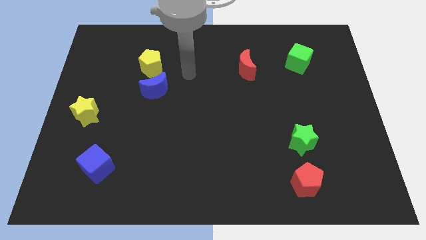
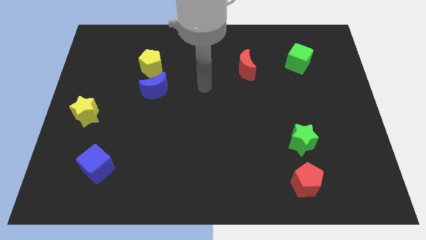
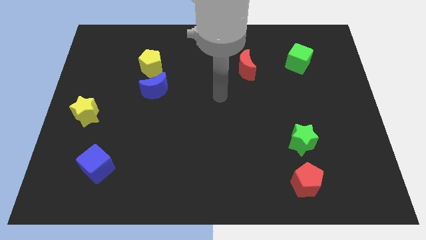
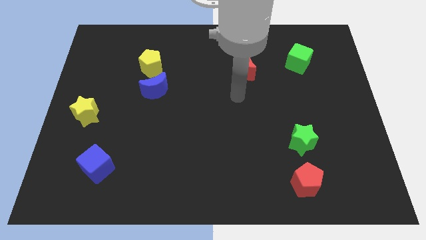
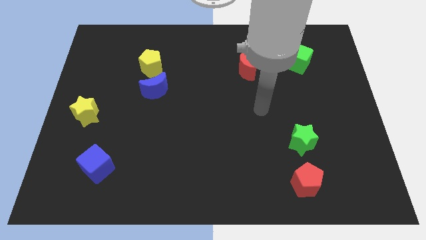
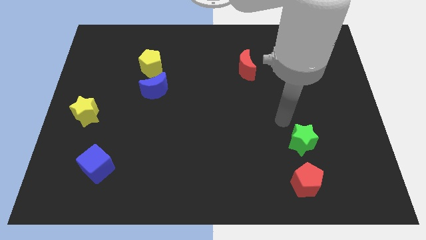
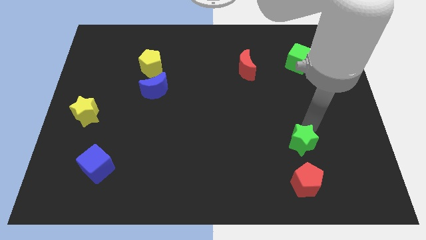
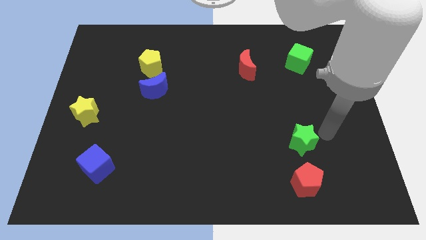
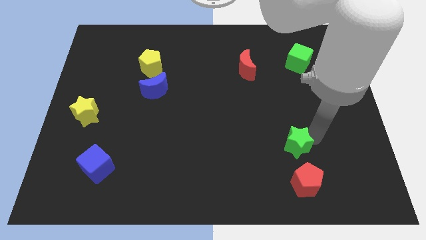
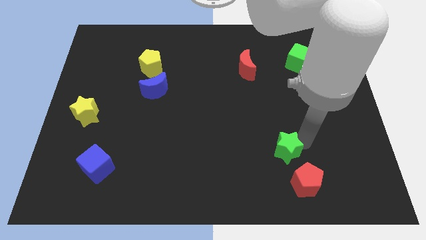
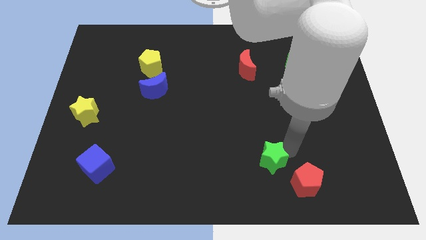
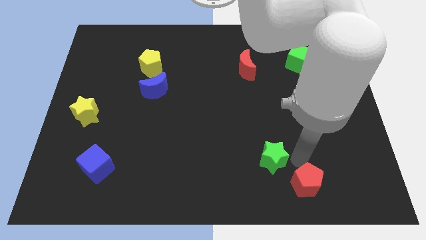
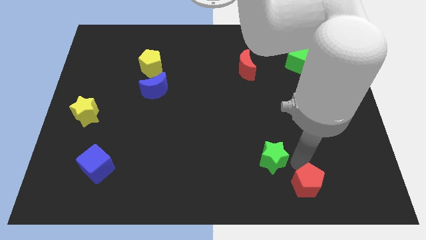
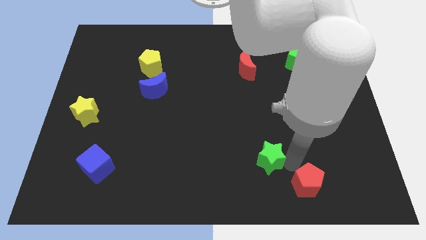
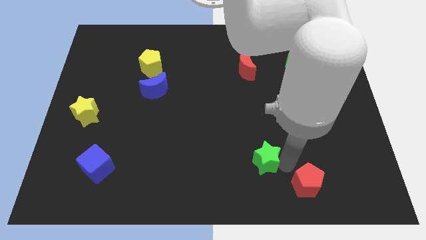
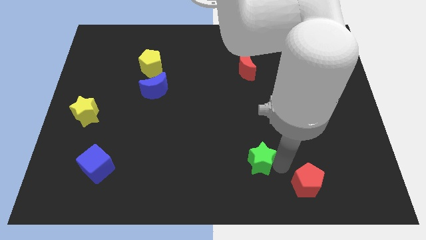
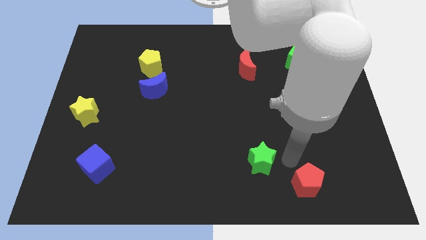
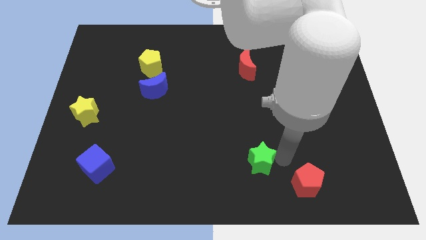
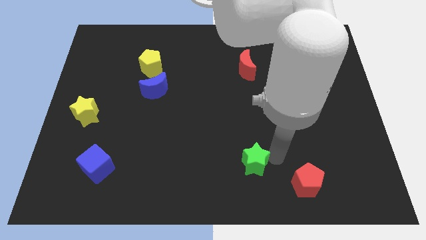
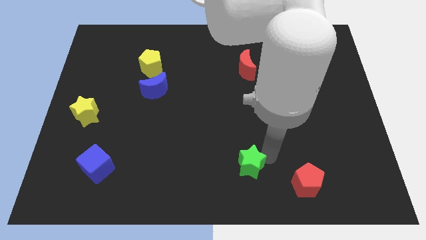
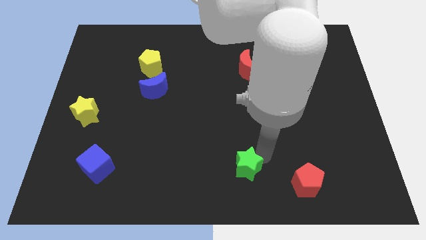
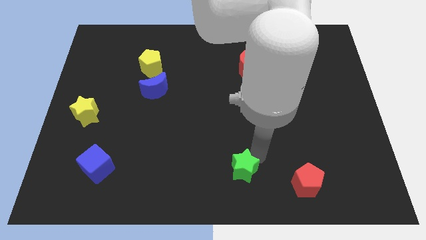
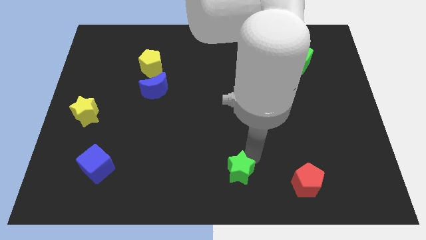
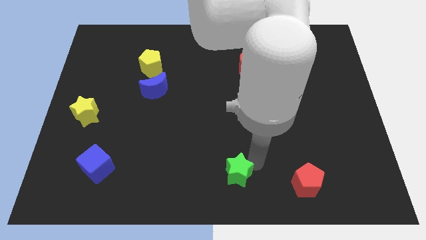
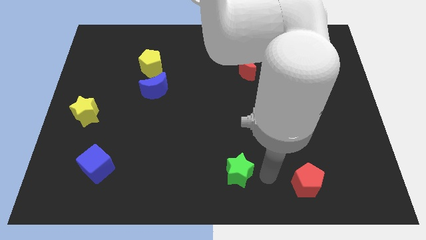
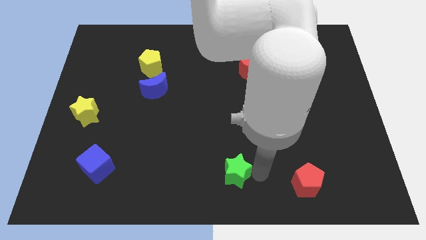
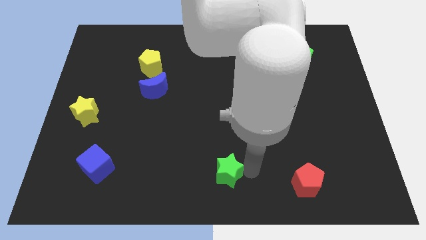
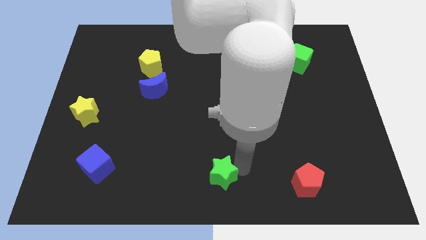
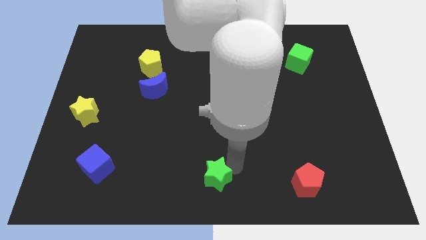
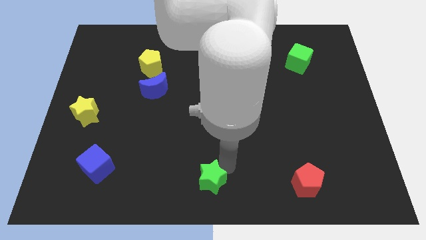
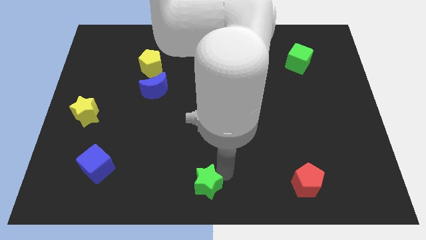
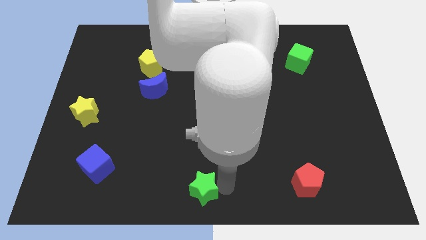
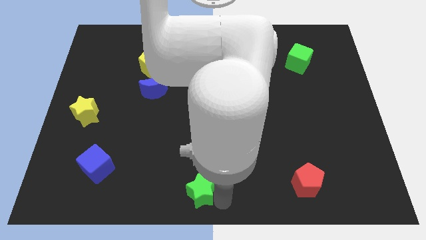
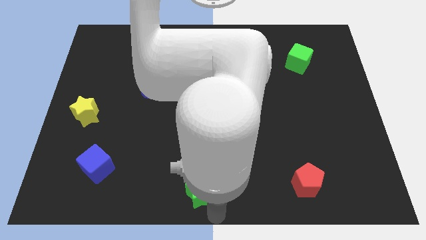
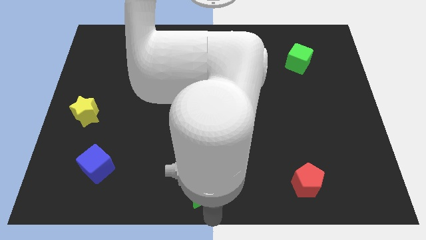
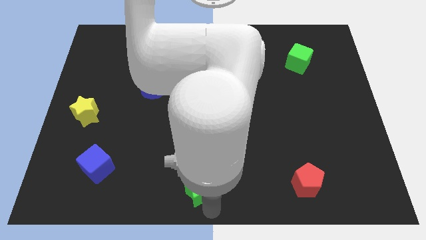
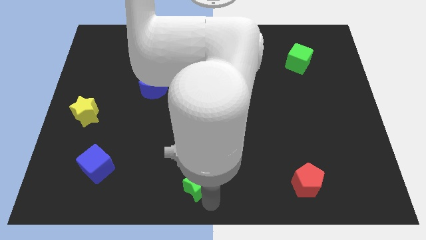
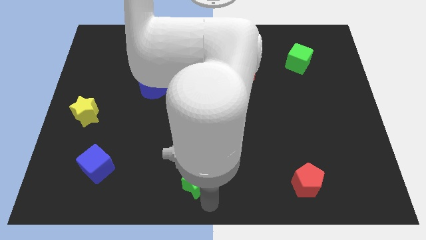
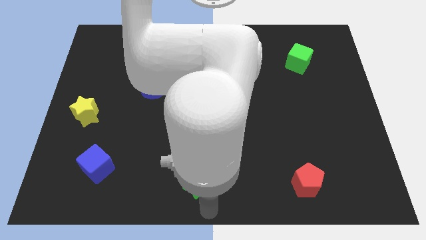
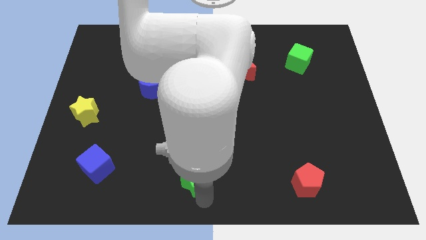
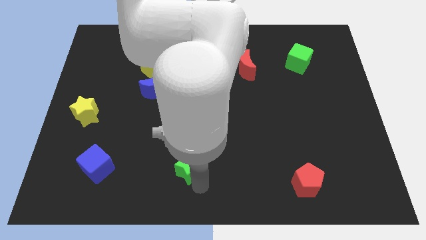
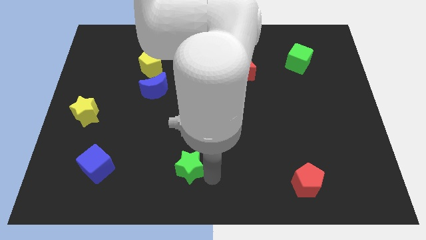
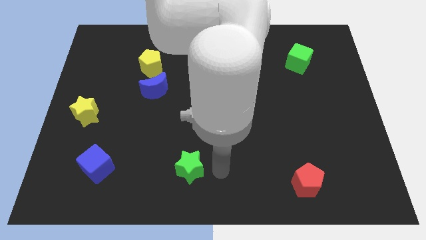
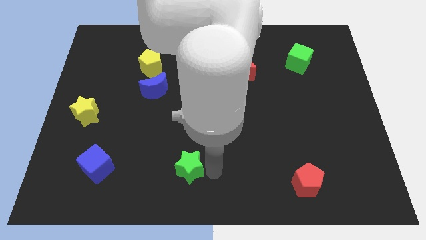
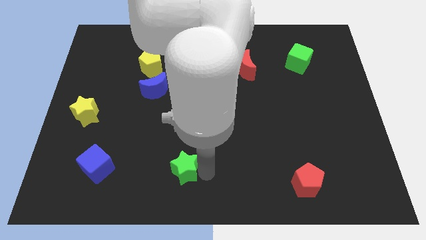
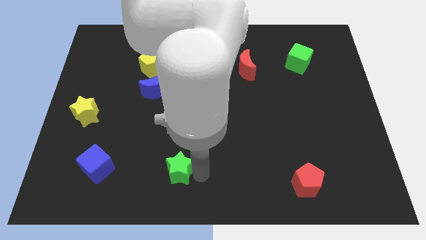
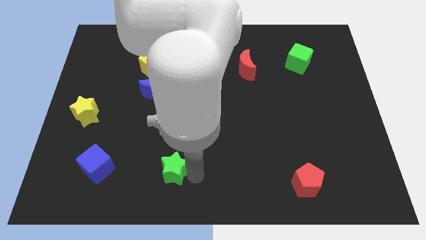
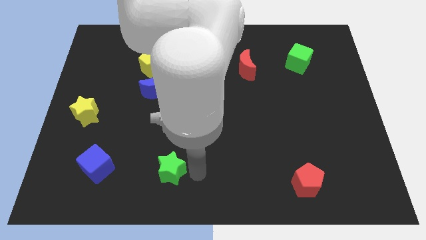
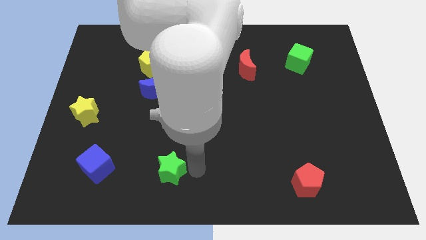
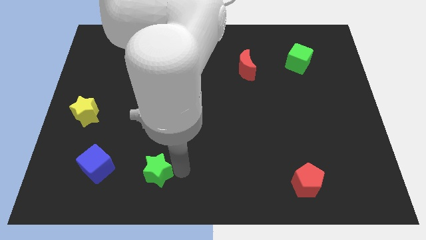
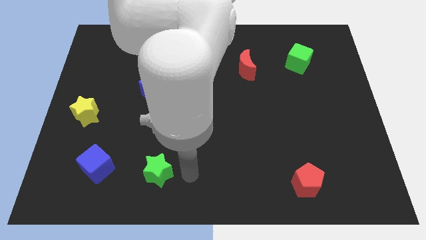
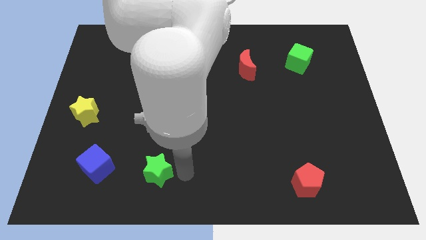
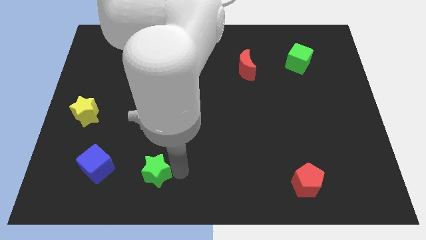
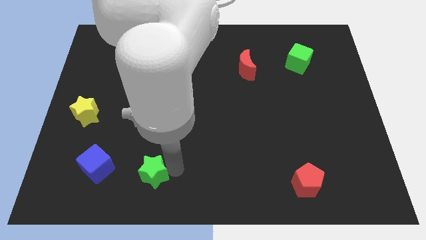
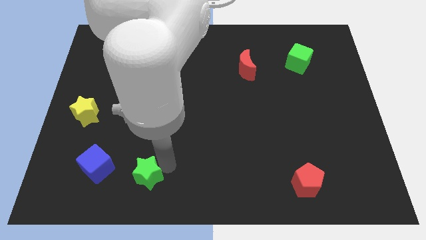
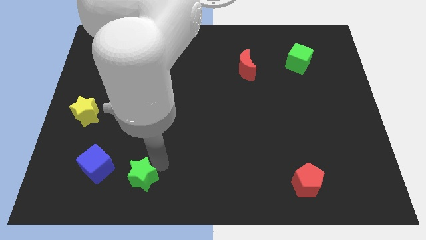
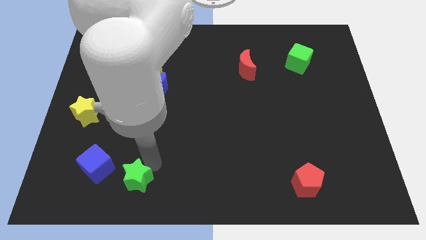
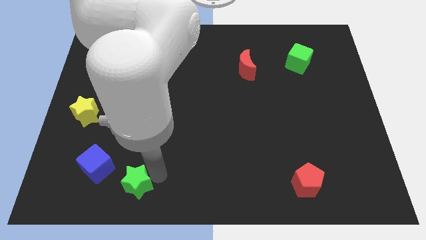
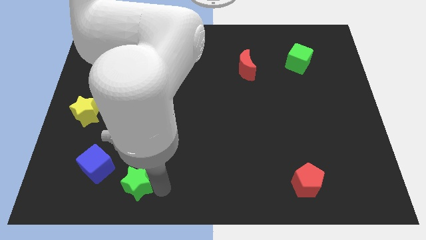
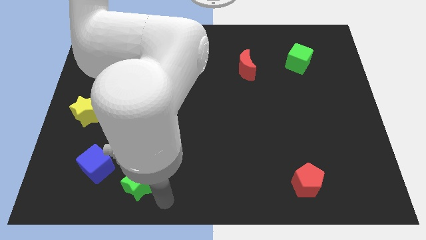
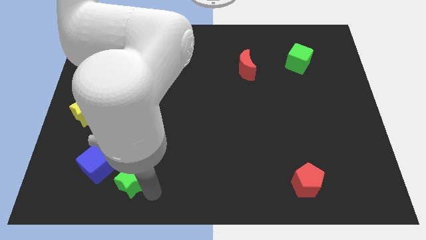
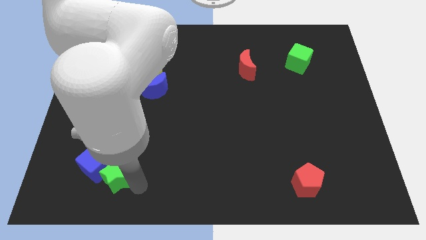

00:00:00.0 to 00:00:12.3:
move the green star towards the blue cube

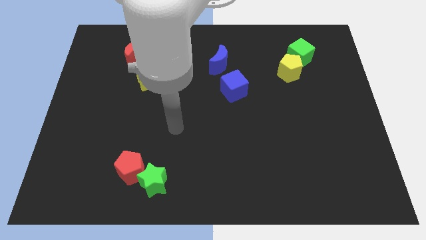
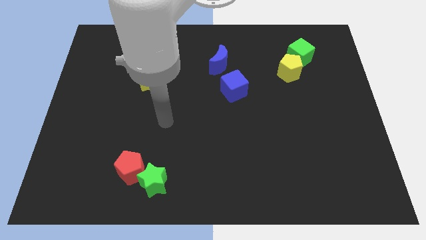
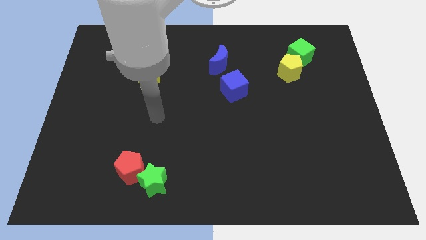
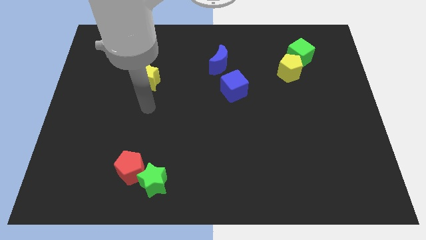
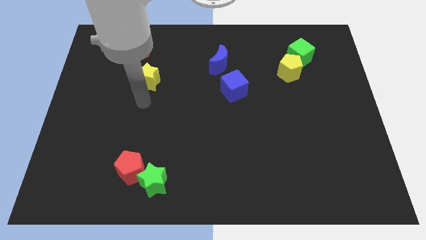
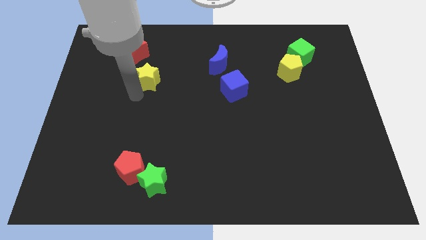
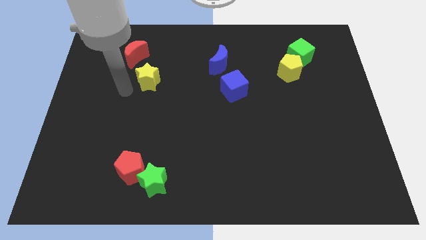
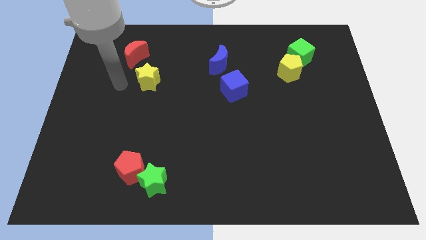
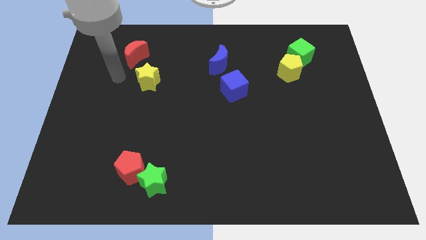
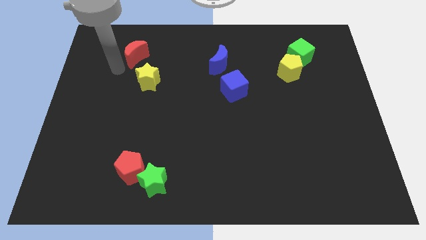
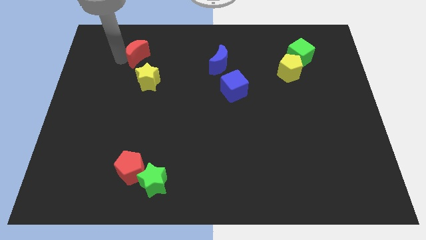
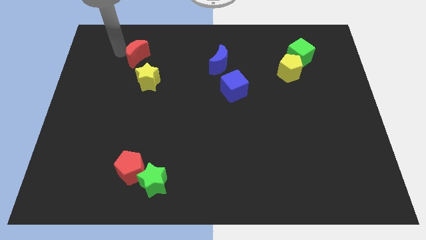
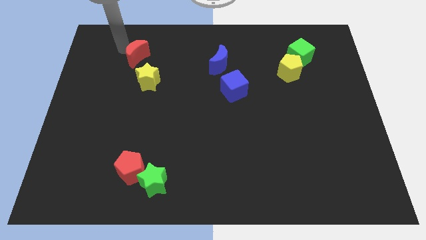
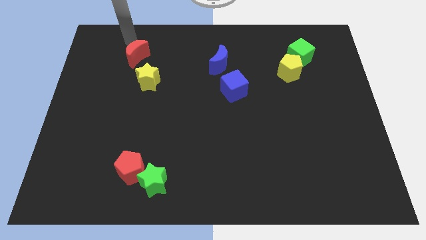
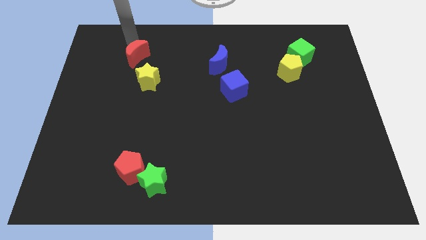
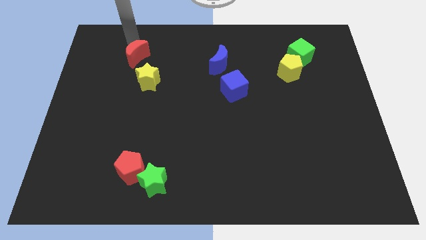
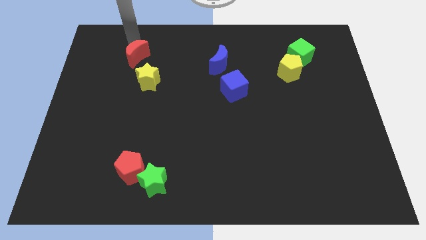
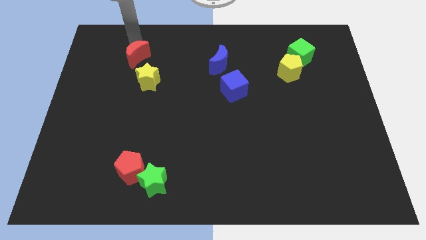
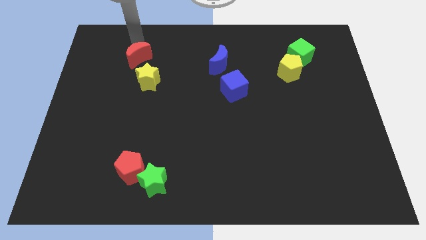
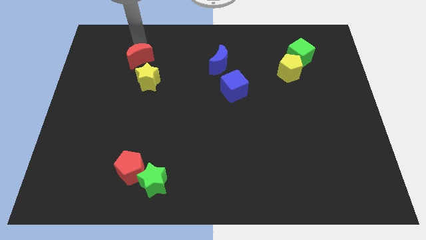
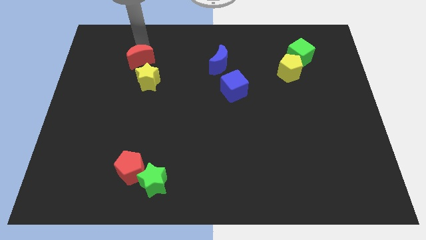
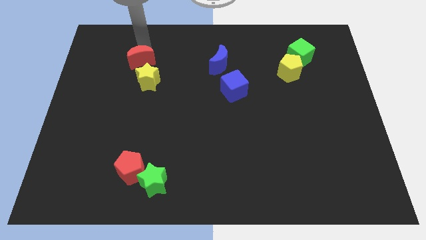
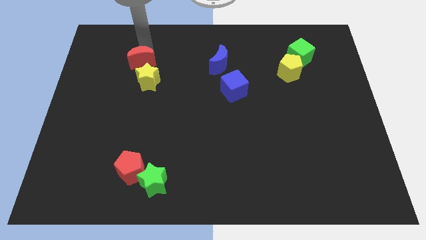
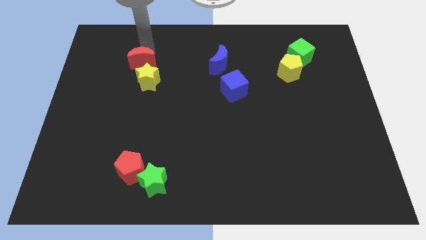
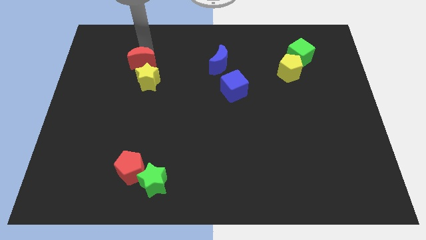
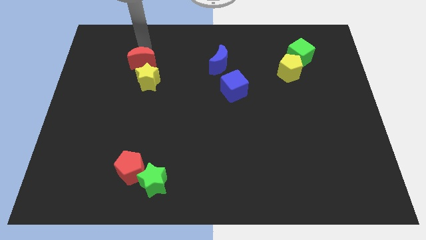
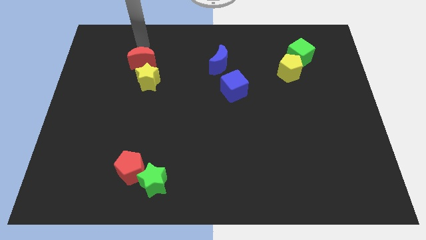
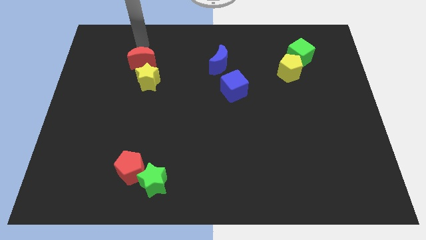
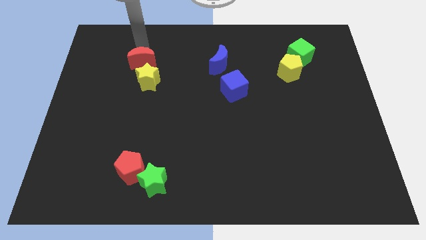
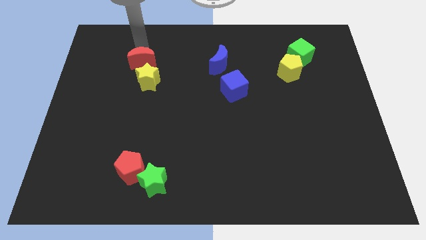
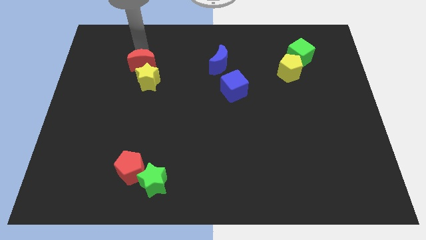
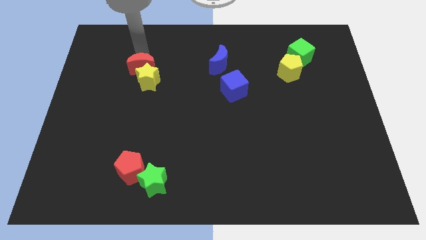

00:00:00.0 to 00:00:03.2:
put the red moon next to the yellow star
